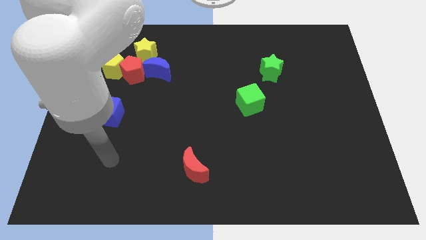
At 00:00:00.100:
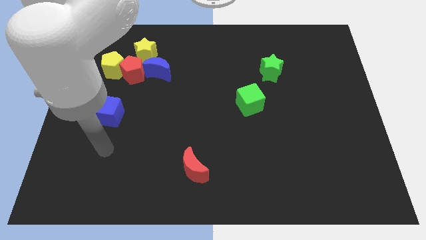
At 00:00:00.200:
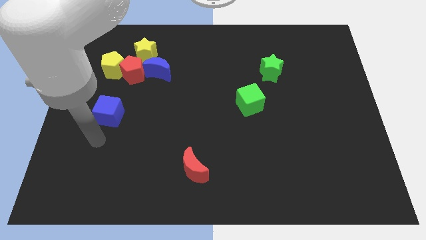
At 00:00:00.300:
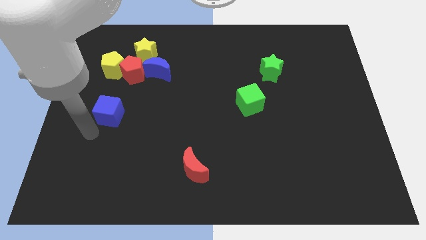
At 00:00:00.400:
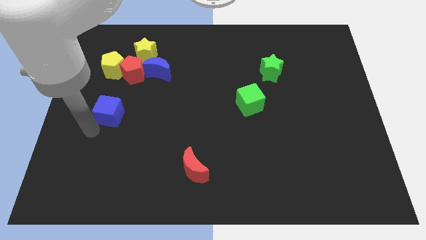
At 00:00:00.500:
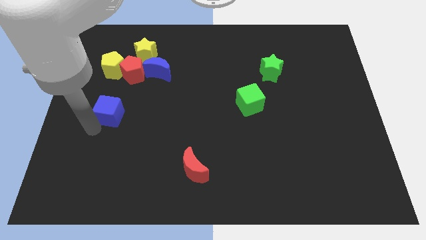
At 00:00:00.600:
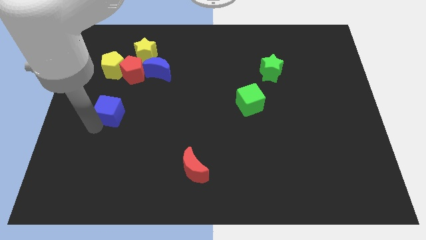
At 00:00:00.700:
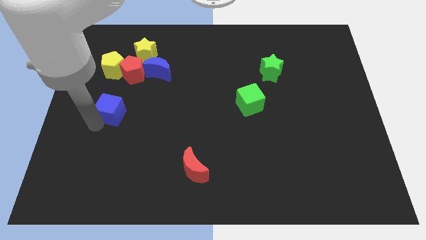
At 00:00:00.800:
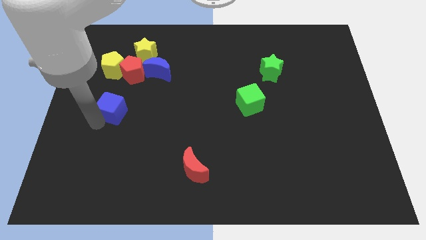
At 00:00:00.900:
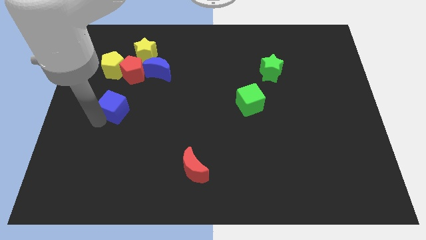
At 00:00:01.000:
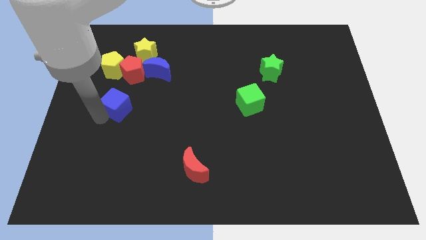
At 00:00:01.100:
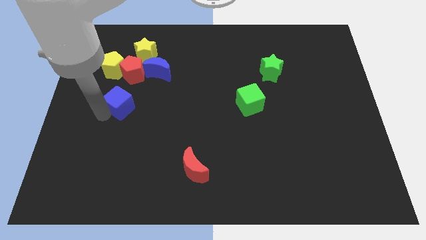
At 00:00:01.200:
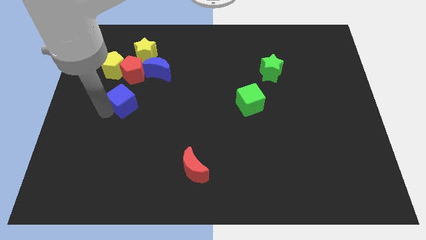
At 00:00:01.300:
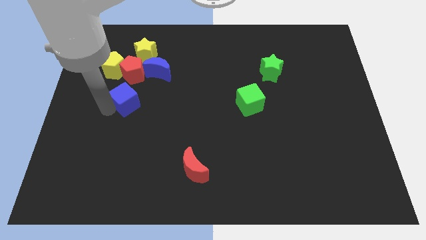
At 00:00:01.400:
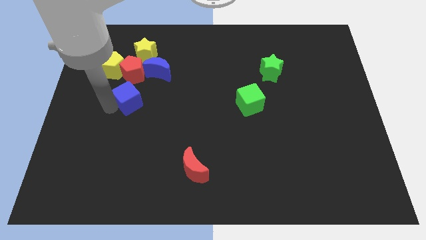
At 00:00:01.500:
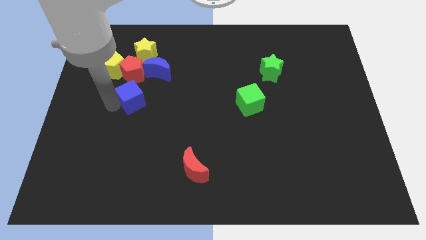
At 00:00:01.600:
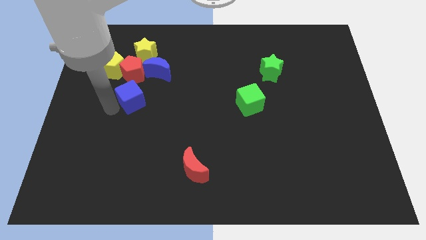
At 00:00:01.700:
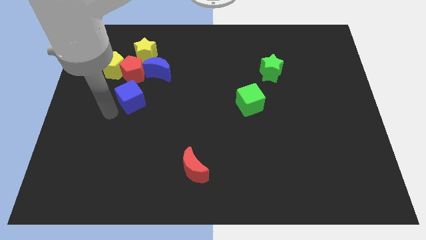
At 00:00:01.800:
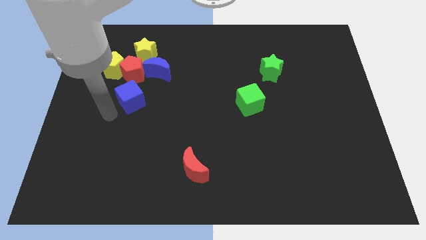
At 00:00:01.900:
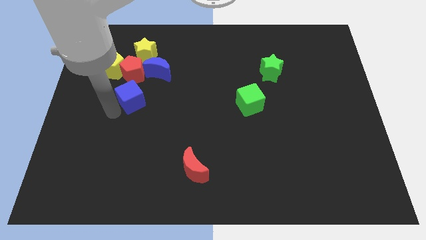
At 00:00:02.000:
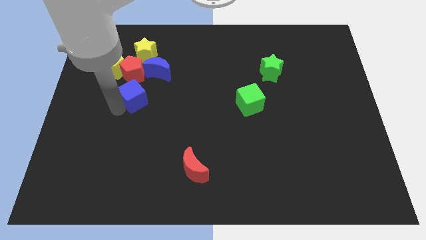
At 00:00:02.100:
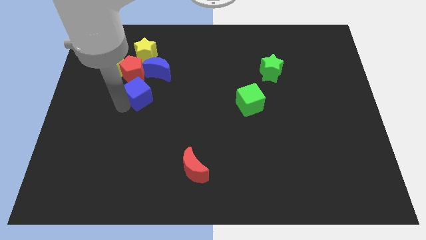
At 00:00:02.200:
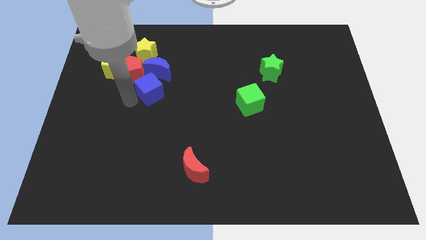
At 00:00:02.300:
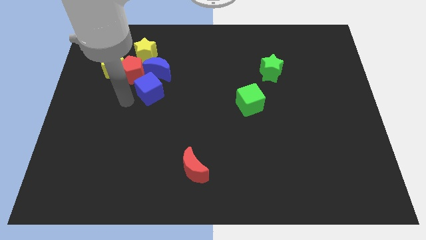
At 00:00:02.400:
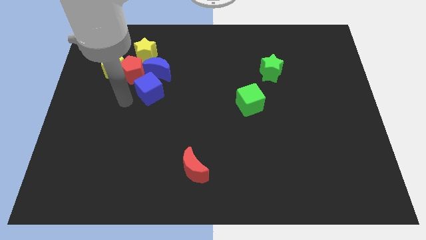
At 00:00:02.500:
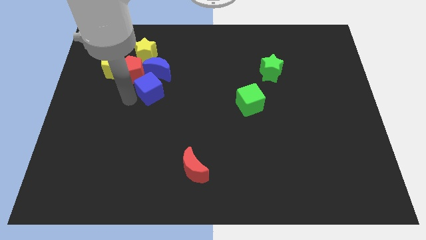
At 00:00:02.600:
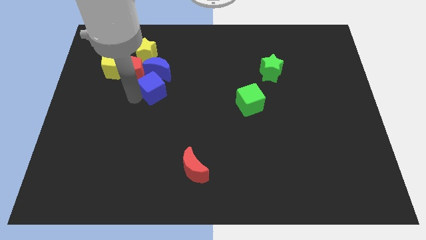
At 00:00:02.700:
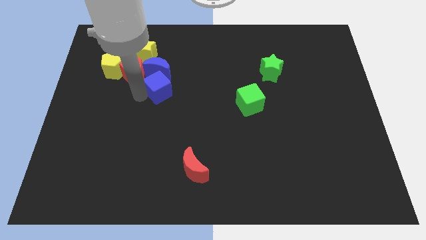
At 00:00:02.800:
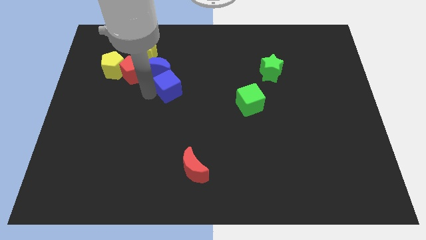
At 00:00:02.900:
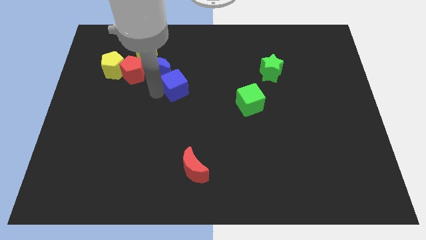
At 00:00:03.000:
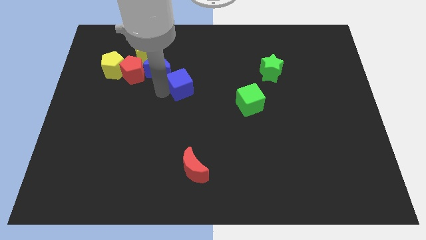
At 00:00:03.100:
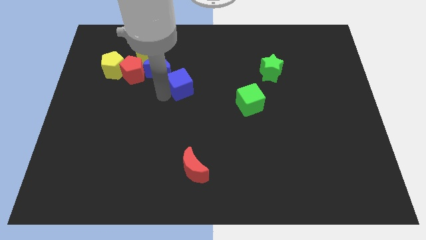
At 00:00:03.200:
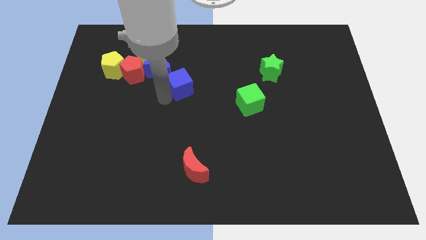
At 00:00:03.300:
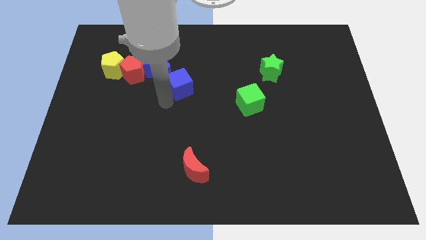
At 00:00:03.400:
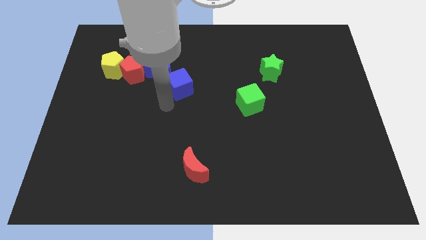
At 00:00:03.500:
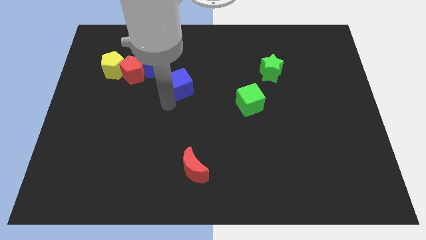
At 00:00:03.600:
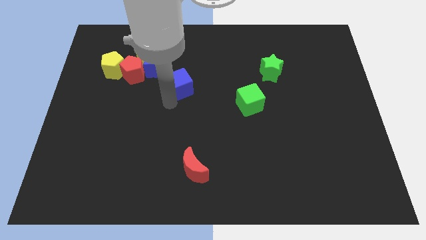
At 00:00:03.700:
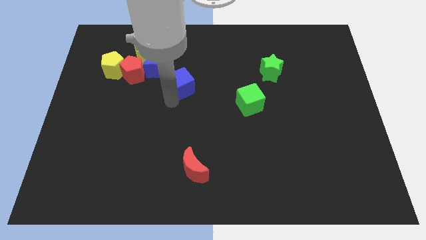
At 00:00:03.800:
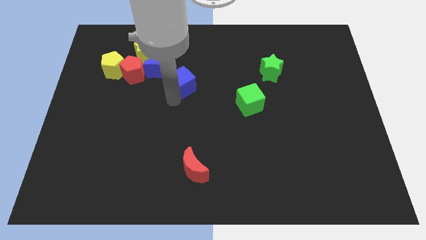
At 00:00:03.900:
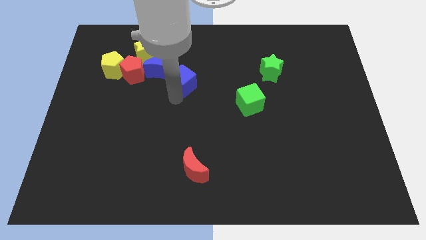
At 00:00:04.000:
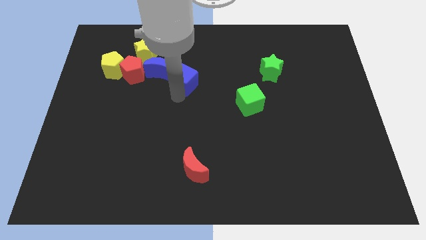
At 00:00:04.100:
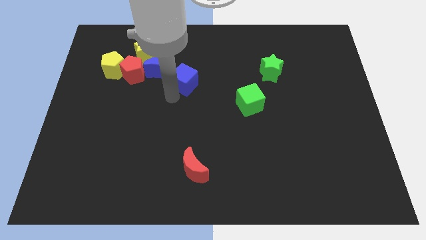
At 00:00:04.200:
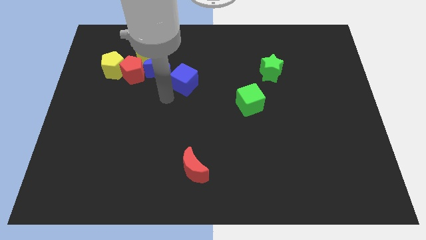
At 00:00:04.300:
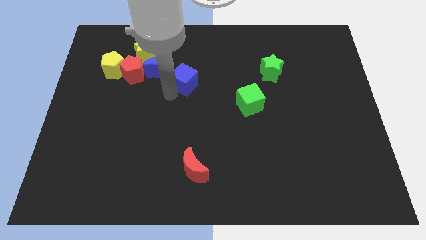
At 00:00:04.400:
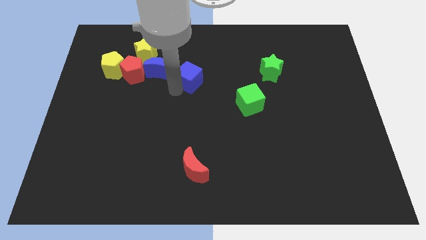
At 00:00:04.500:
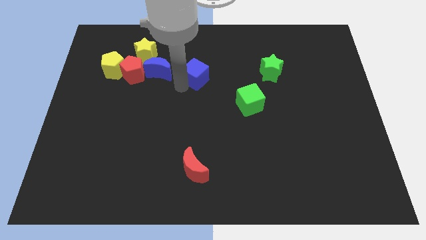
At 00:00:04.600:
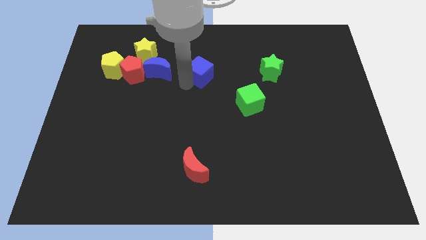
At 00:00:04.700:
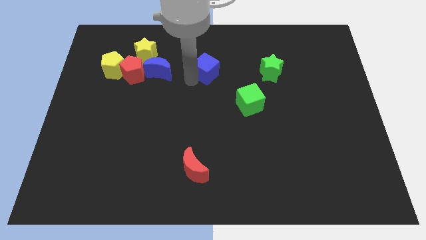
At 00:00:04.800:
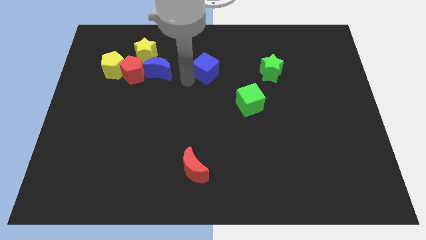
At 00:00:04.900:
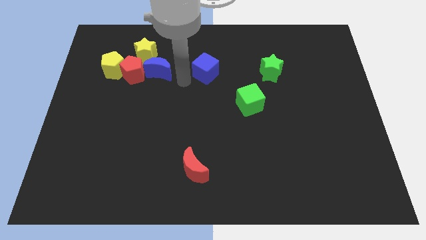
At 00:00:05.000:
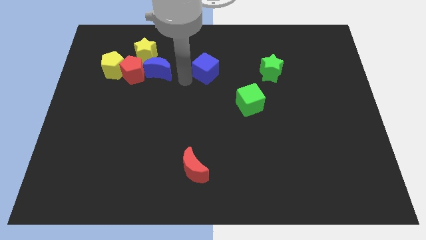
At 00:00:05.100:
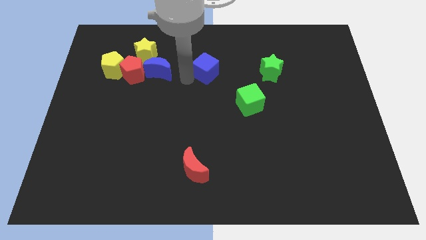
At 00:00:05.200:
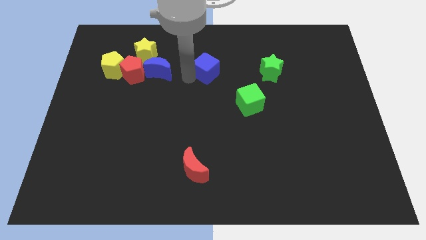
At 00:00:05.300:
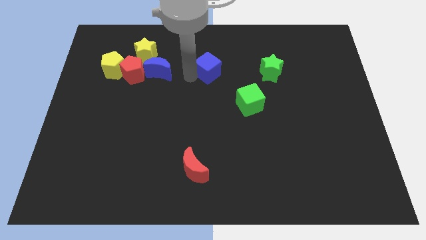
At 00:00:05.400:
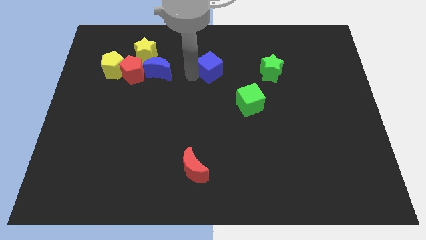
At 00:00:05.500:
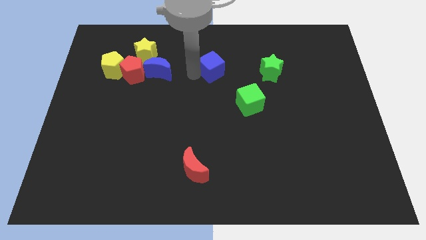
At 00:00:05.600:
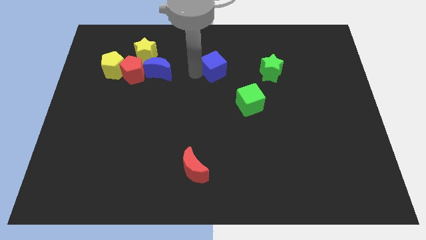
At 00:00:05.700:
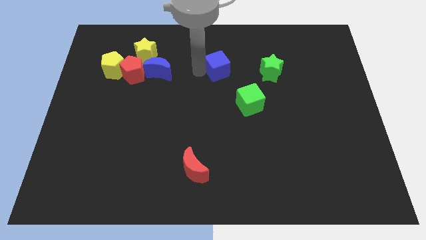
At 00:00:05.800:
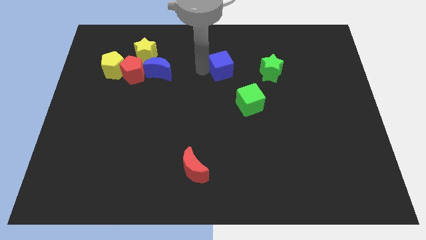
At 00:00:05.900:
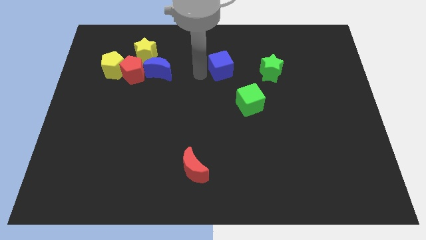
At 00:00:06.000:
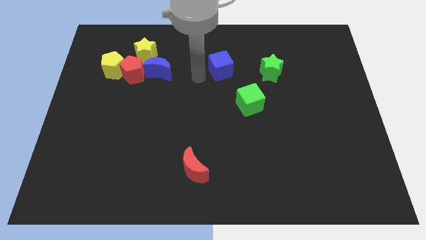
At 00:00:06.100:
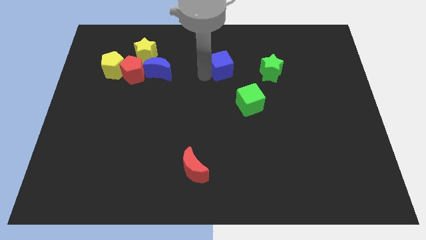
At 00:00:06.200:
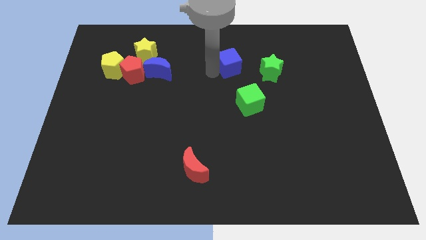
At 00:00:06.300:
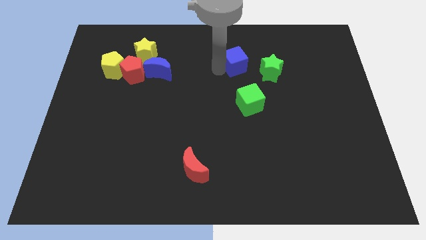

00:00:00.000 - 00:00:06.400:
push the blue cube to the top left side of the green star

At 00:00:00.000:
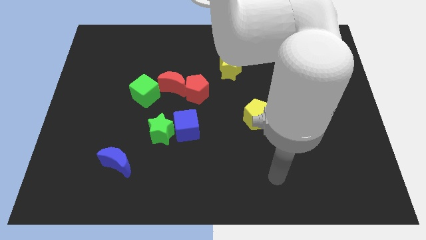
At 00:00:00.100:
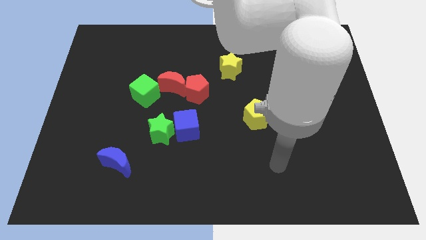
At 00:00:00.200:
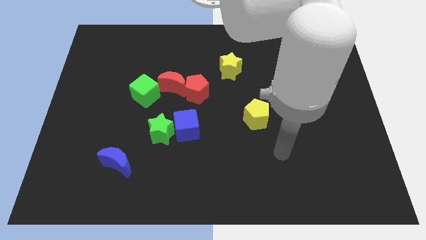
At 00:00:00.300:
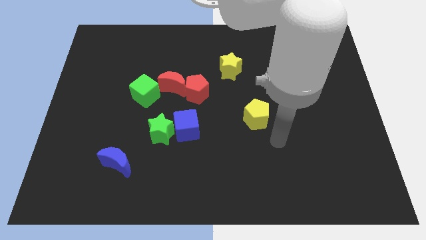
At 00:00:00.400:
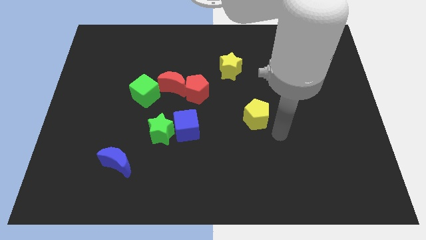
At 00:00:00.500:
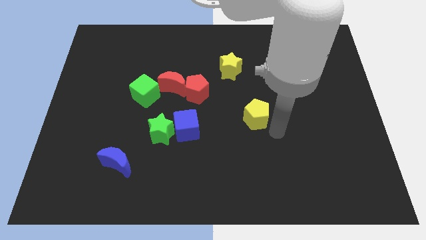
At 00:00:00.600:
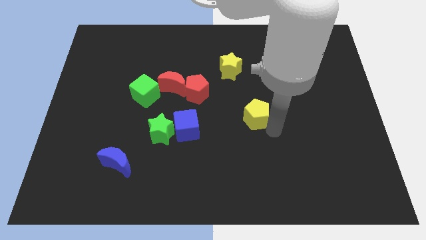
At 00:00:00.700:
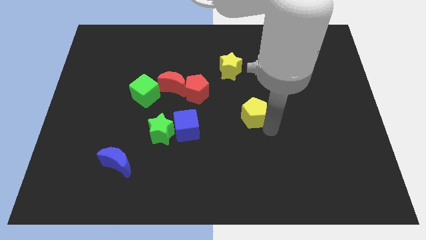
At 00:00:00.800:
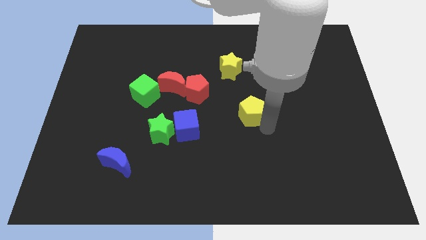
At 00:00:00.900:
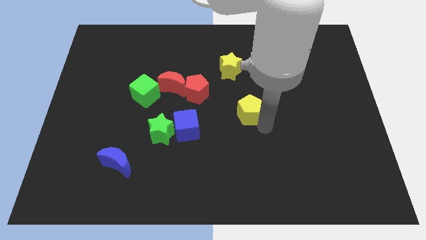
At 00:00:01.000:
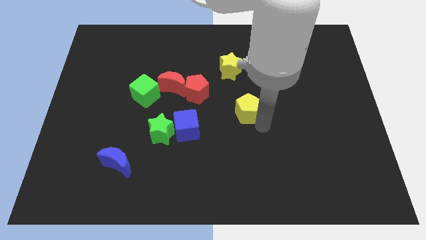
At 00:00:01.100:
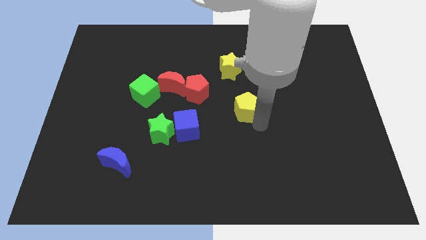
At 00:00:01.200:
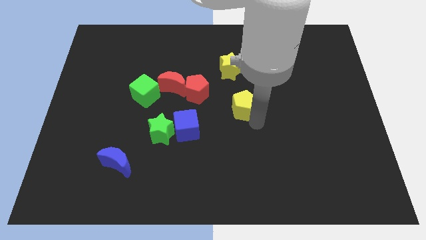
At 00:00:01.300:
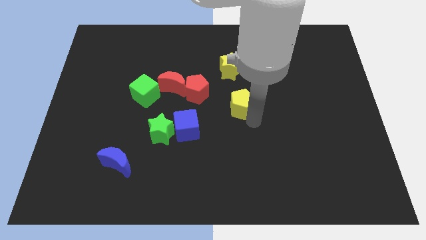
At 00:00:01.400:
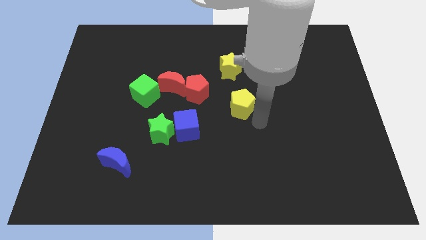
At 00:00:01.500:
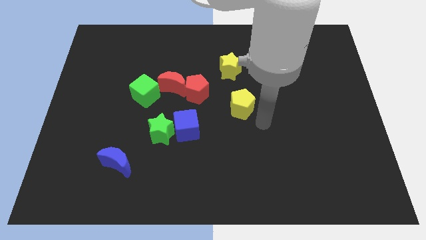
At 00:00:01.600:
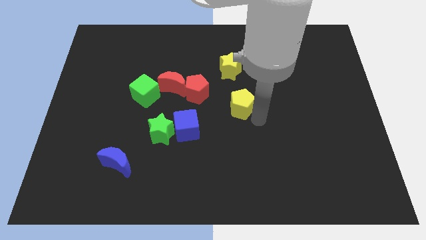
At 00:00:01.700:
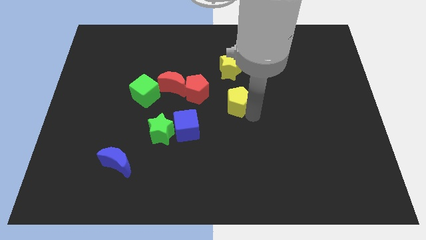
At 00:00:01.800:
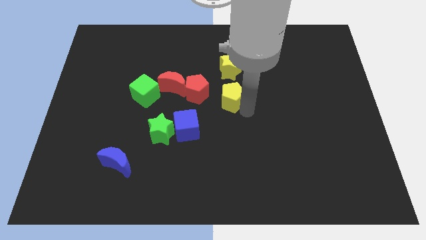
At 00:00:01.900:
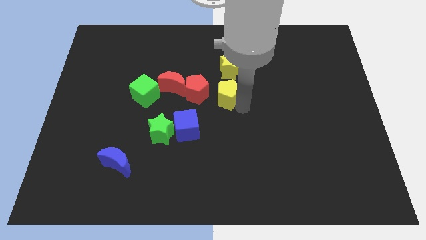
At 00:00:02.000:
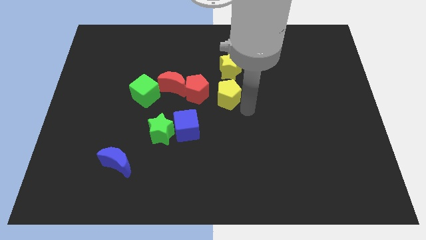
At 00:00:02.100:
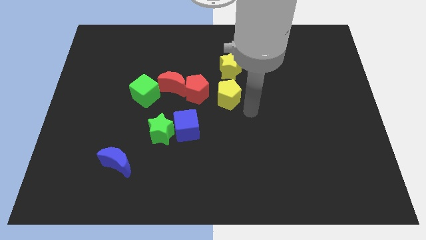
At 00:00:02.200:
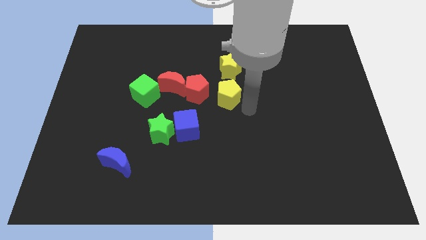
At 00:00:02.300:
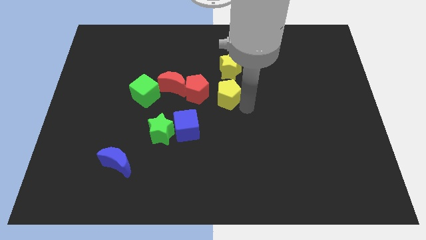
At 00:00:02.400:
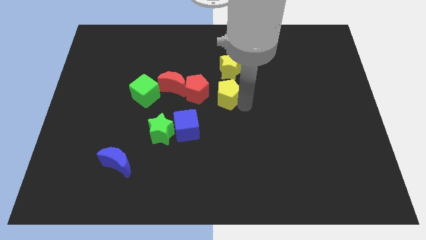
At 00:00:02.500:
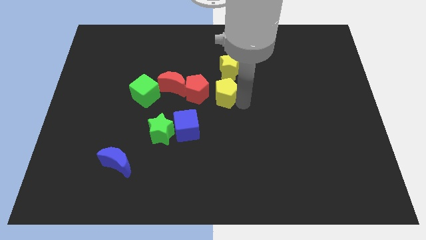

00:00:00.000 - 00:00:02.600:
move the yellow pentagon diagonally down and to the left of the yellow star
